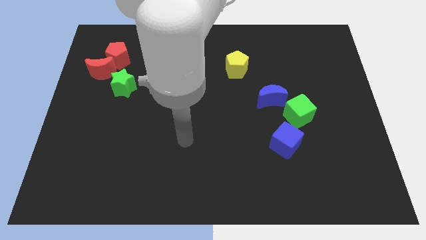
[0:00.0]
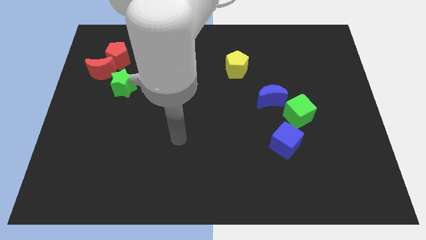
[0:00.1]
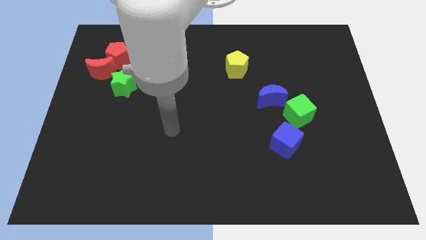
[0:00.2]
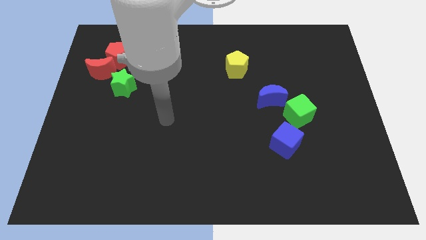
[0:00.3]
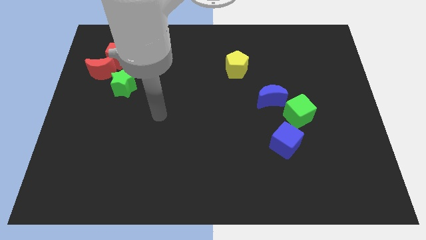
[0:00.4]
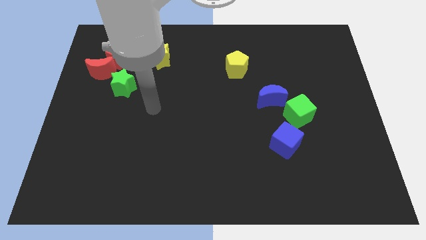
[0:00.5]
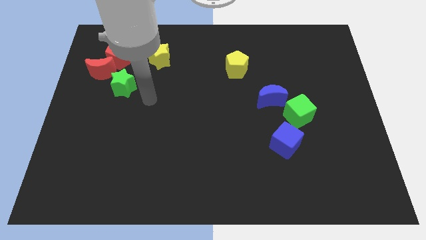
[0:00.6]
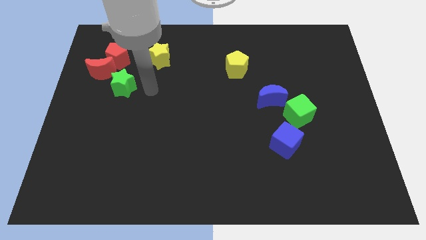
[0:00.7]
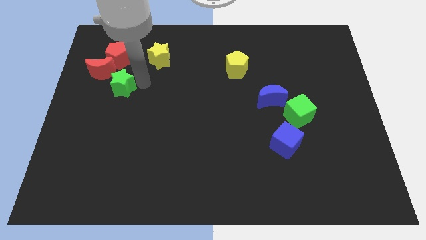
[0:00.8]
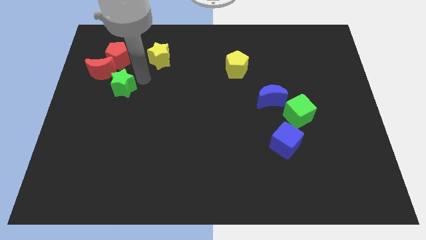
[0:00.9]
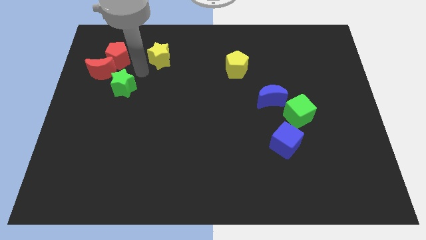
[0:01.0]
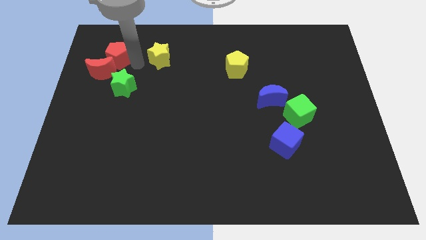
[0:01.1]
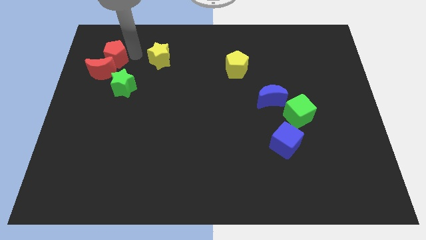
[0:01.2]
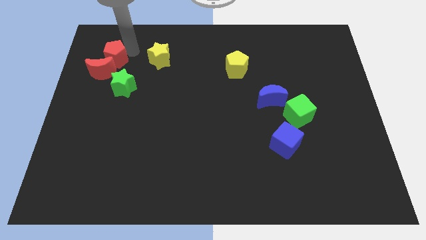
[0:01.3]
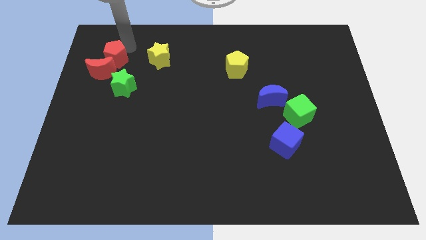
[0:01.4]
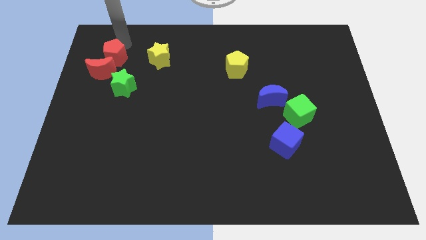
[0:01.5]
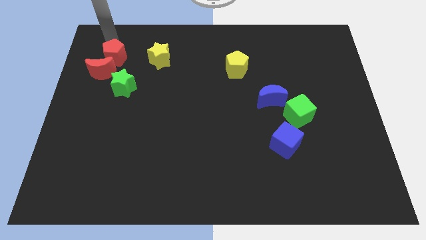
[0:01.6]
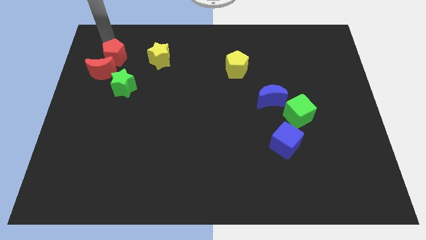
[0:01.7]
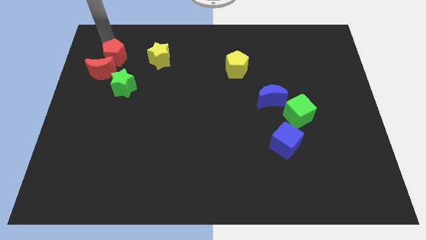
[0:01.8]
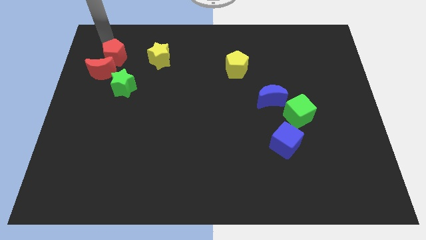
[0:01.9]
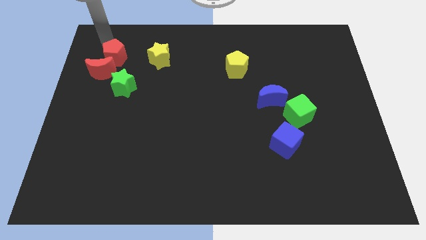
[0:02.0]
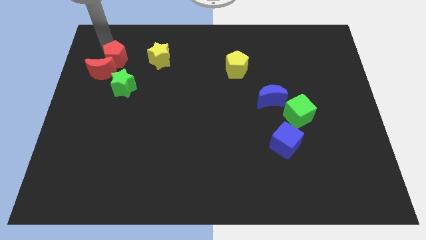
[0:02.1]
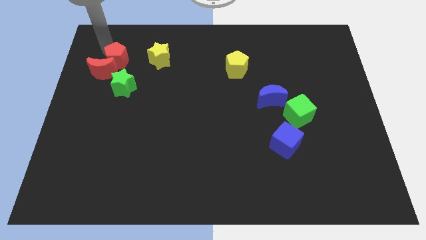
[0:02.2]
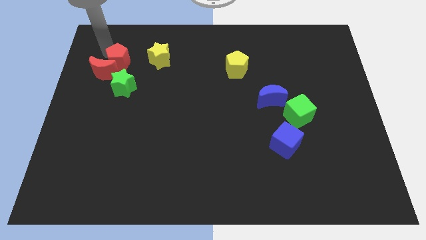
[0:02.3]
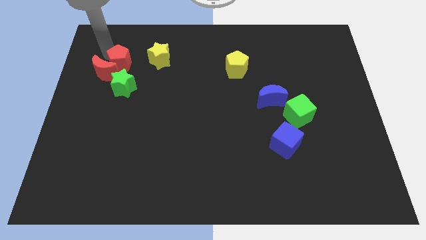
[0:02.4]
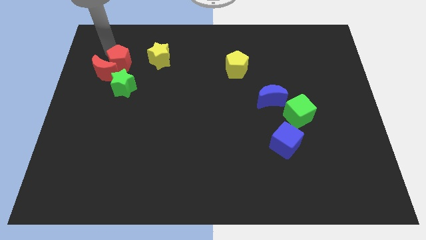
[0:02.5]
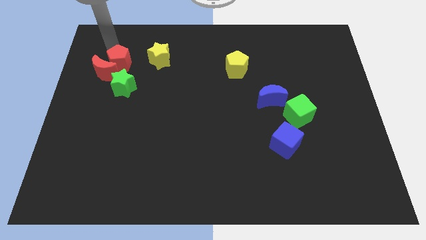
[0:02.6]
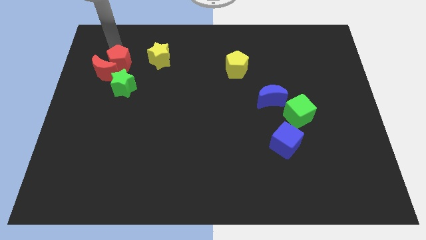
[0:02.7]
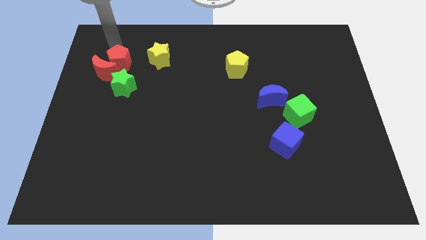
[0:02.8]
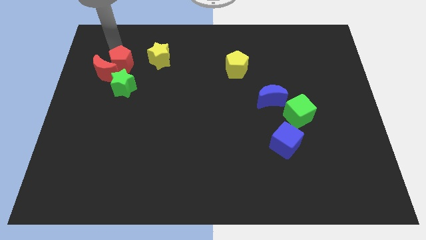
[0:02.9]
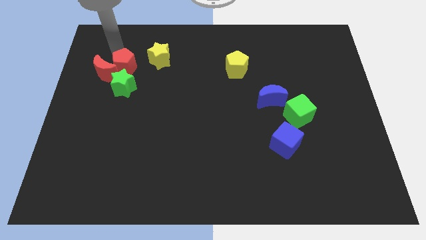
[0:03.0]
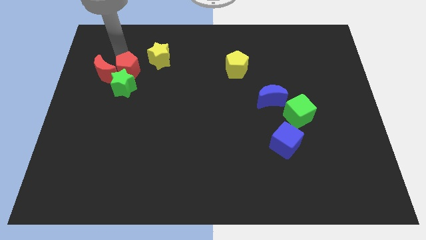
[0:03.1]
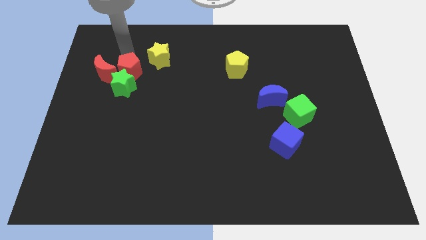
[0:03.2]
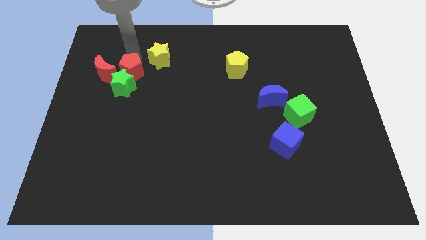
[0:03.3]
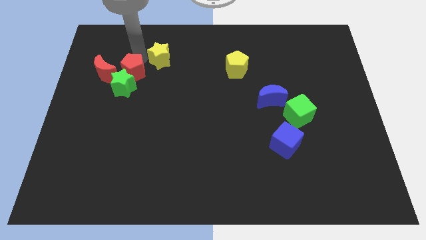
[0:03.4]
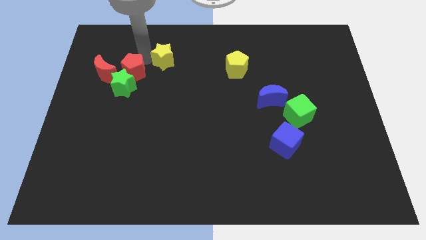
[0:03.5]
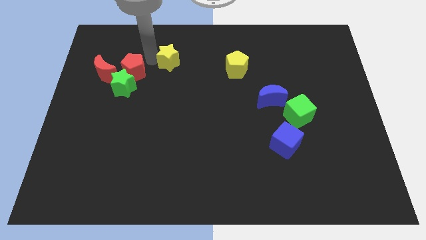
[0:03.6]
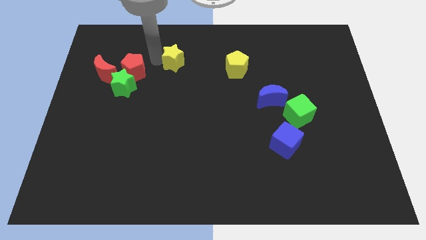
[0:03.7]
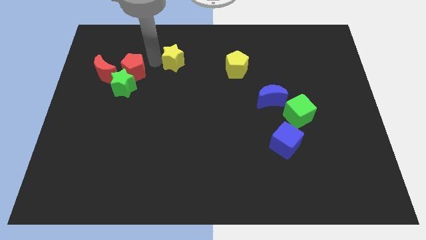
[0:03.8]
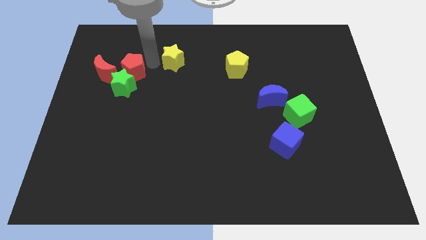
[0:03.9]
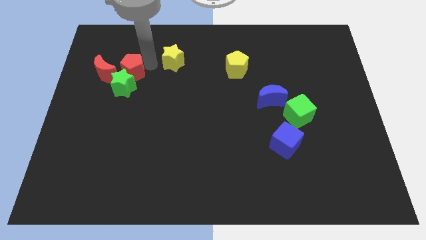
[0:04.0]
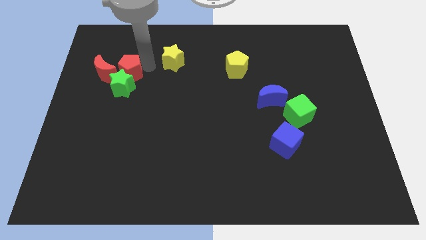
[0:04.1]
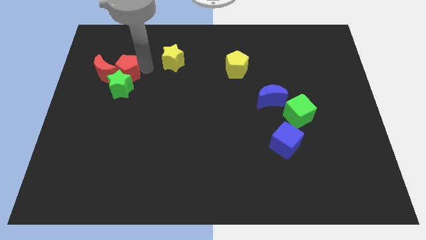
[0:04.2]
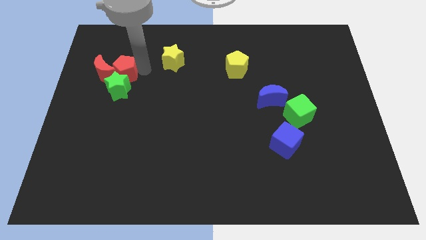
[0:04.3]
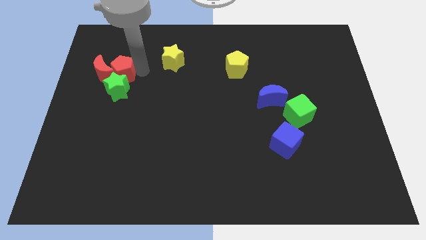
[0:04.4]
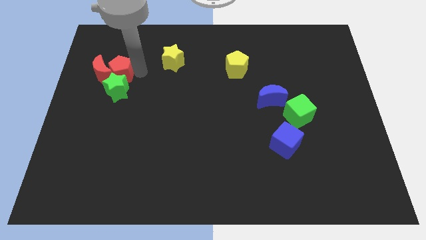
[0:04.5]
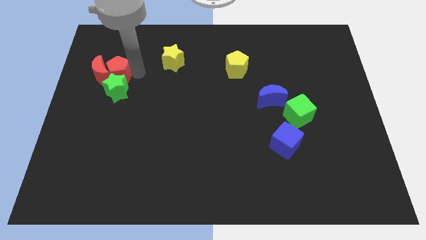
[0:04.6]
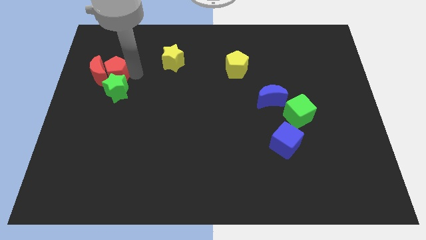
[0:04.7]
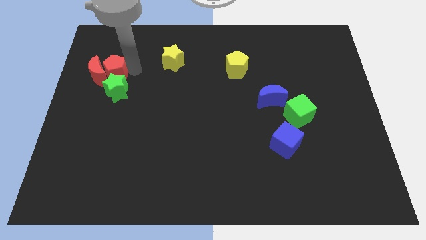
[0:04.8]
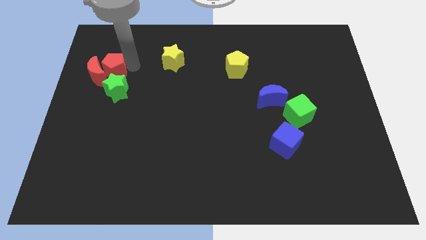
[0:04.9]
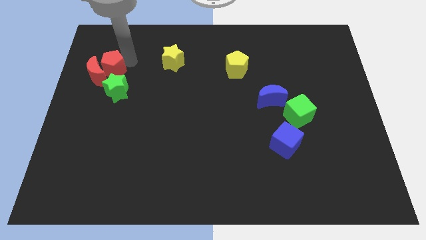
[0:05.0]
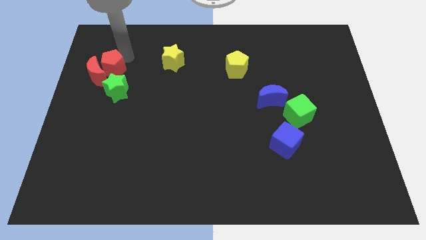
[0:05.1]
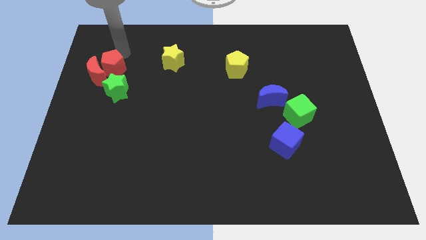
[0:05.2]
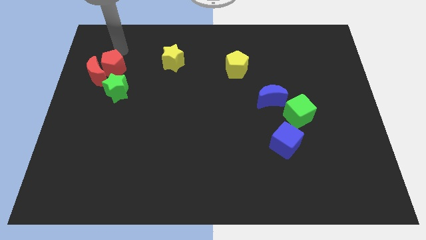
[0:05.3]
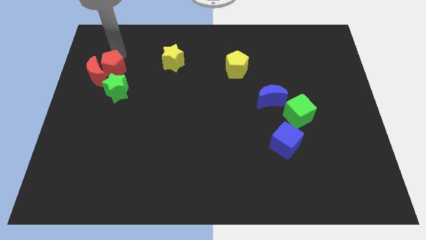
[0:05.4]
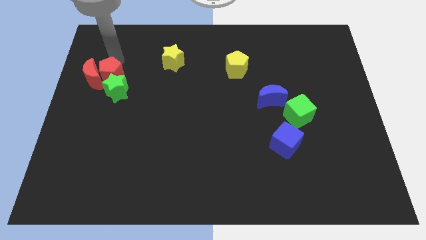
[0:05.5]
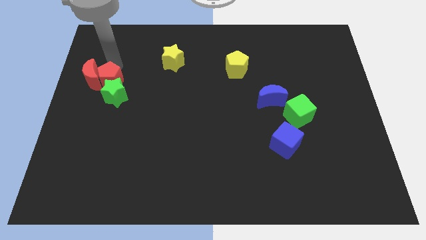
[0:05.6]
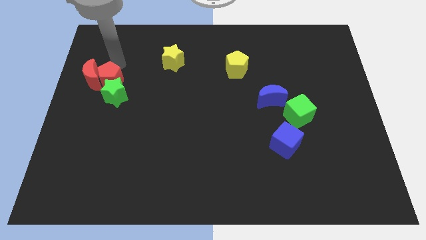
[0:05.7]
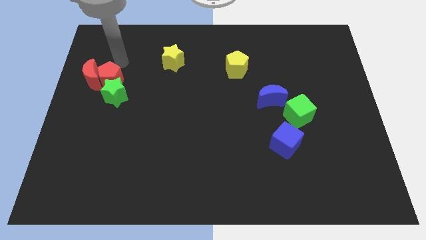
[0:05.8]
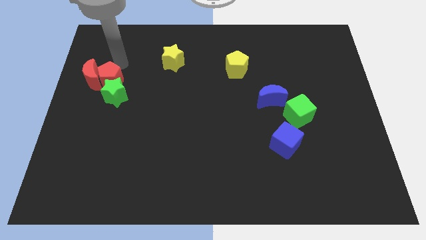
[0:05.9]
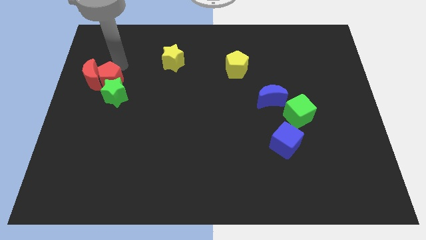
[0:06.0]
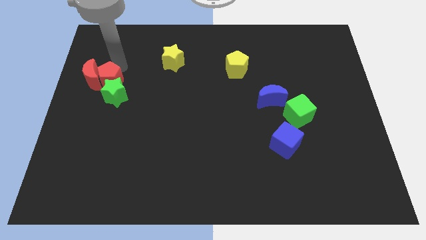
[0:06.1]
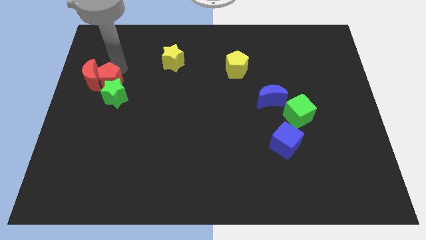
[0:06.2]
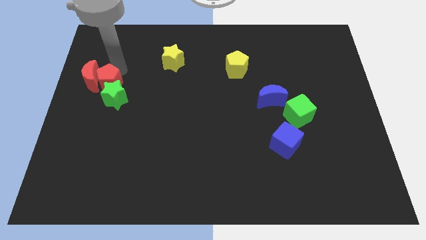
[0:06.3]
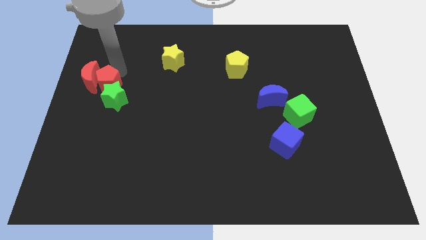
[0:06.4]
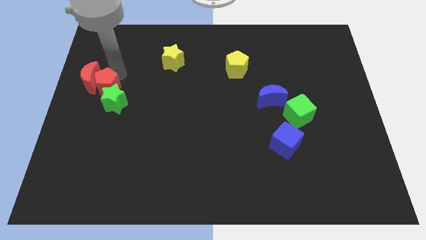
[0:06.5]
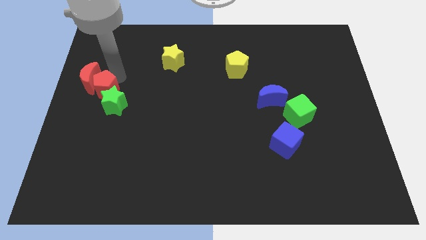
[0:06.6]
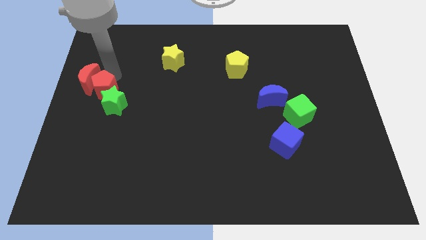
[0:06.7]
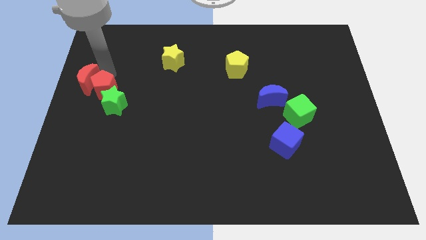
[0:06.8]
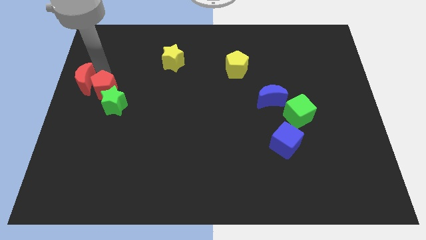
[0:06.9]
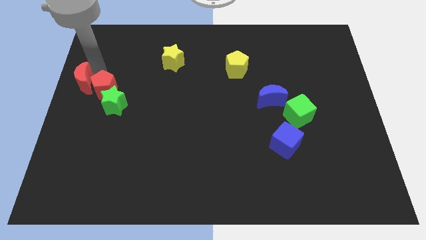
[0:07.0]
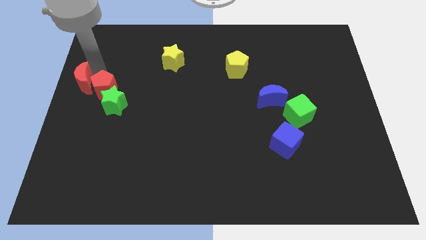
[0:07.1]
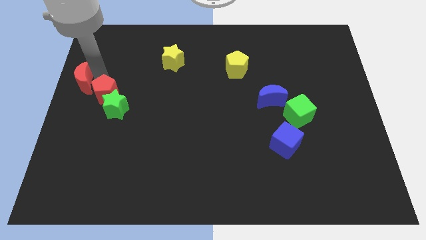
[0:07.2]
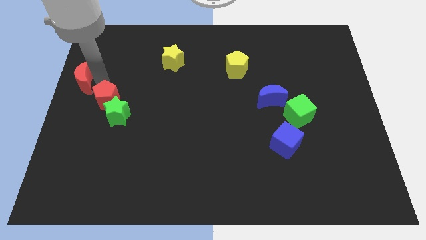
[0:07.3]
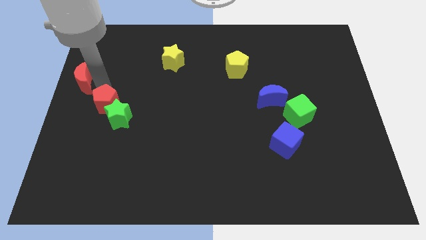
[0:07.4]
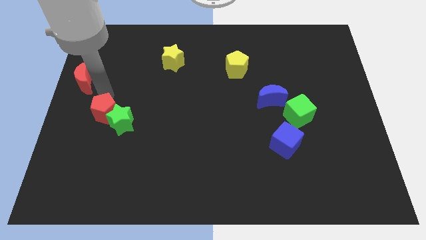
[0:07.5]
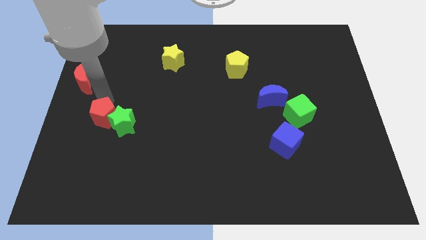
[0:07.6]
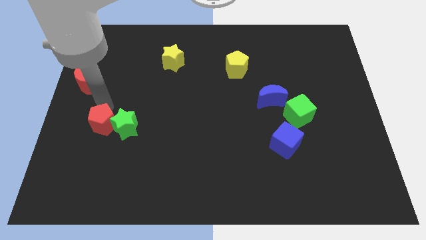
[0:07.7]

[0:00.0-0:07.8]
slide the red pentagon downwards

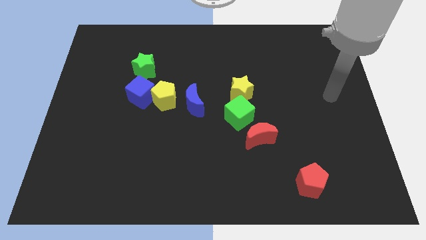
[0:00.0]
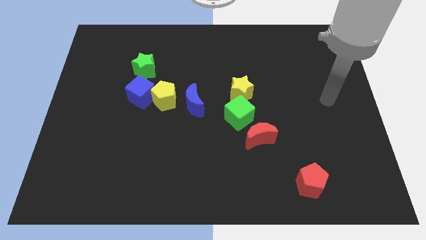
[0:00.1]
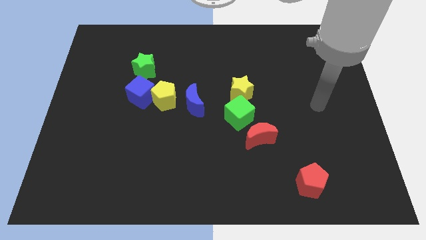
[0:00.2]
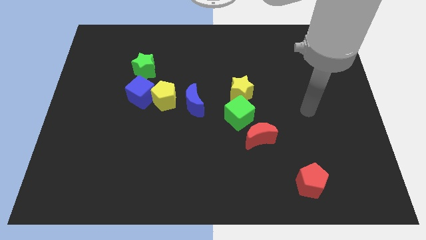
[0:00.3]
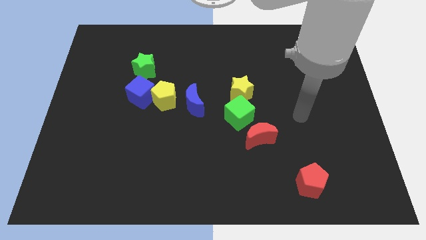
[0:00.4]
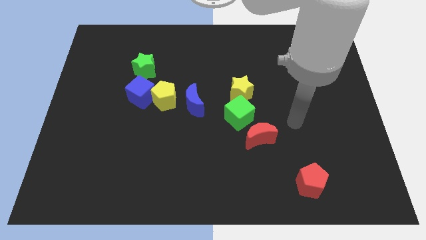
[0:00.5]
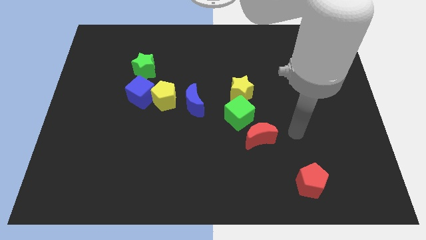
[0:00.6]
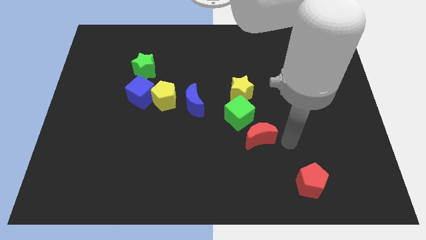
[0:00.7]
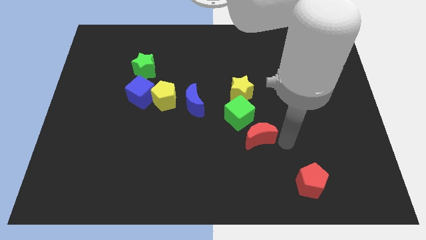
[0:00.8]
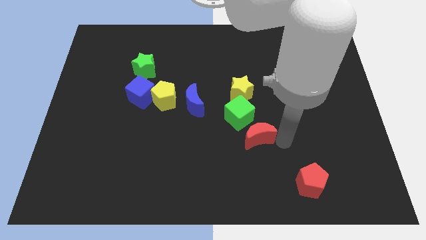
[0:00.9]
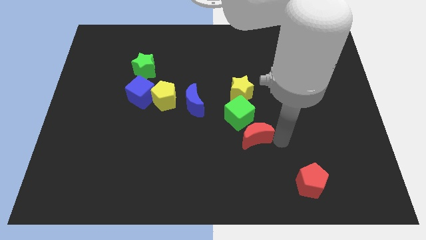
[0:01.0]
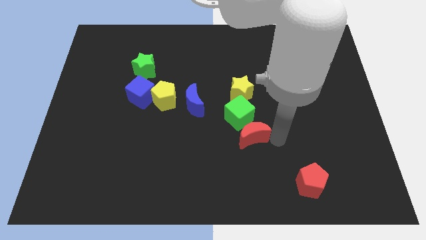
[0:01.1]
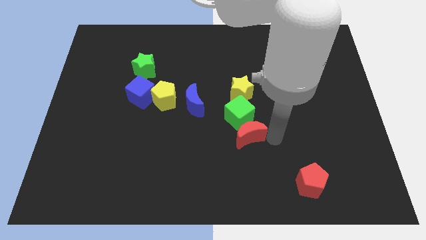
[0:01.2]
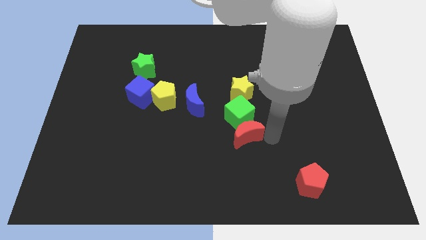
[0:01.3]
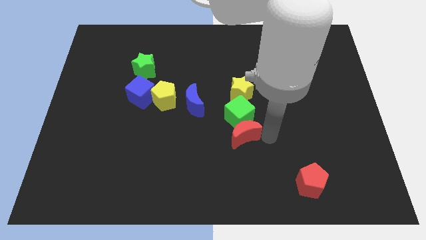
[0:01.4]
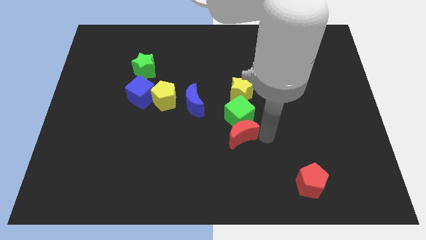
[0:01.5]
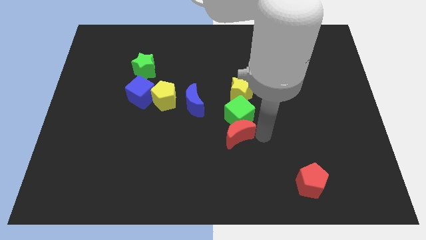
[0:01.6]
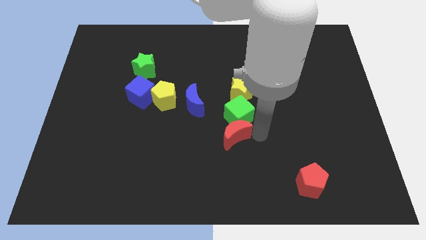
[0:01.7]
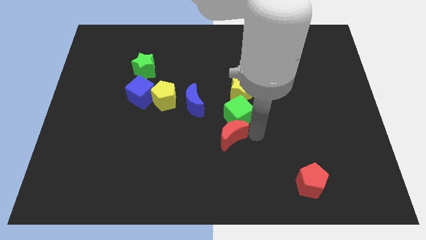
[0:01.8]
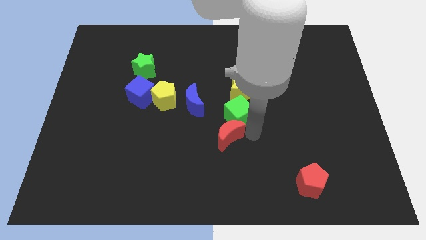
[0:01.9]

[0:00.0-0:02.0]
slide the red moon to the left a bit
